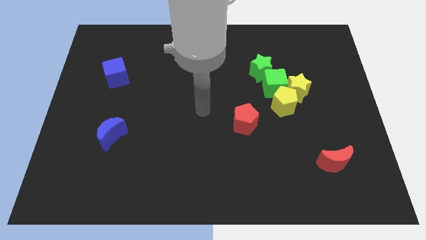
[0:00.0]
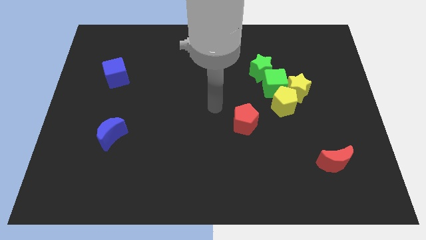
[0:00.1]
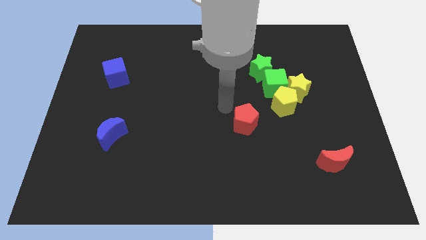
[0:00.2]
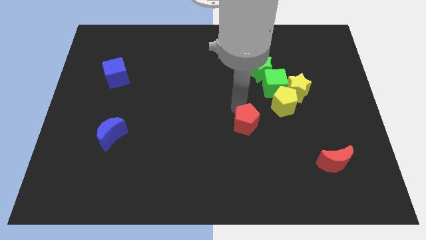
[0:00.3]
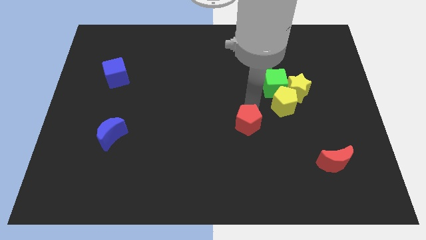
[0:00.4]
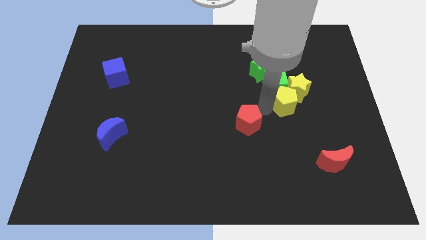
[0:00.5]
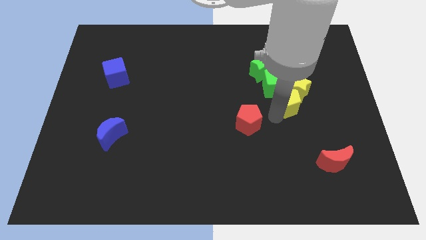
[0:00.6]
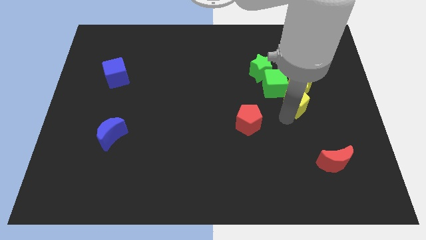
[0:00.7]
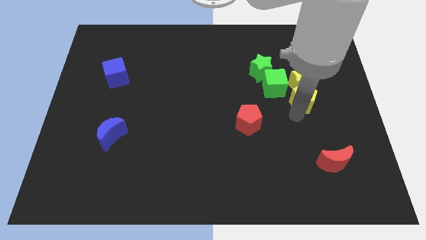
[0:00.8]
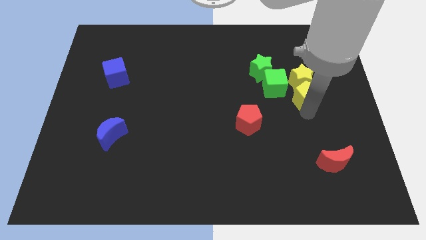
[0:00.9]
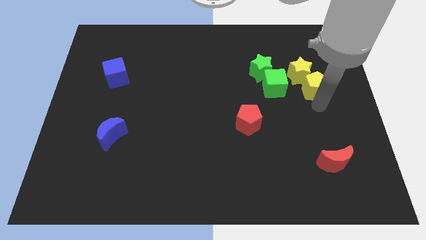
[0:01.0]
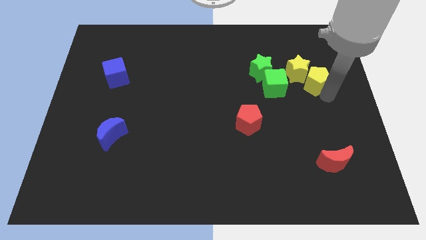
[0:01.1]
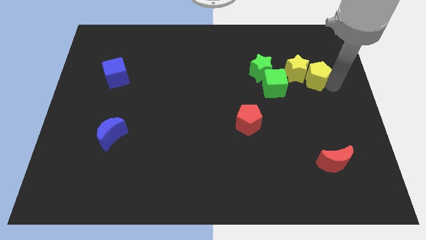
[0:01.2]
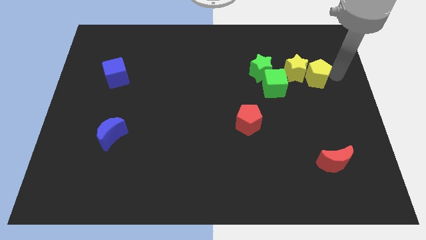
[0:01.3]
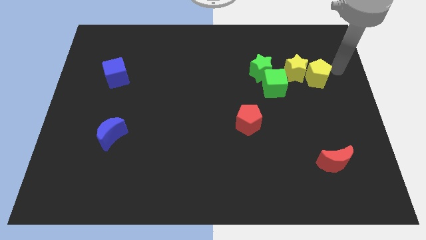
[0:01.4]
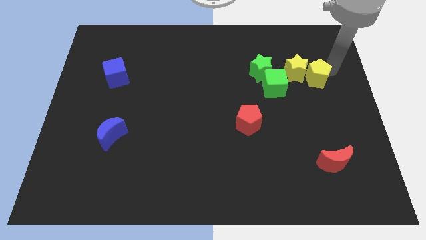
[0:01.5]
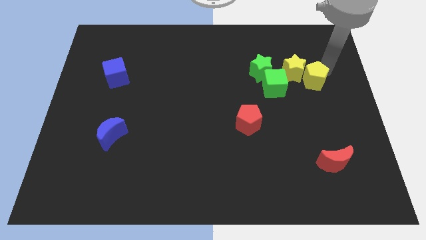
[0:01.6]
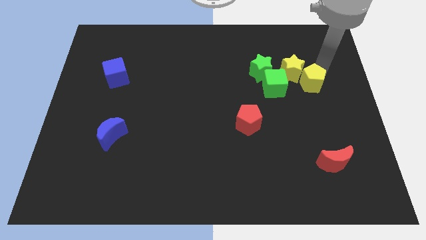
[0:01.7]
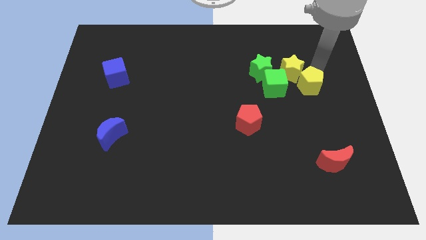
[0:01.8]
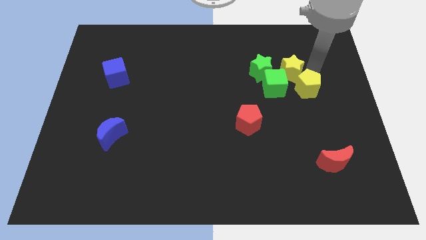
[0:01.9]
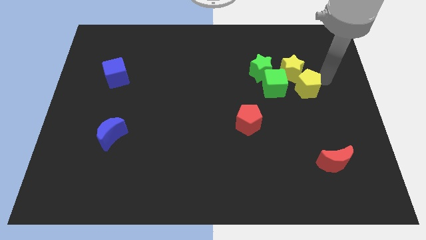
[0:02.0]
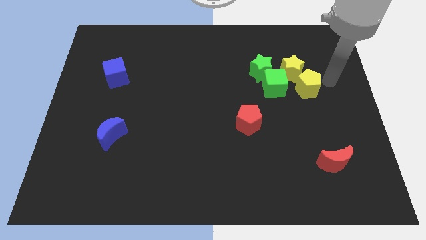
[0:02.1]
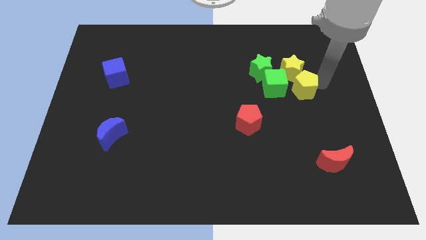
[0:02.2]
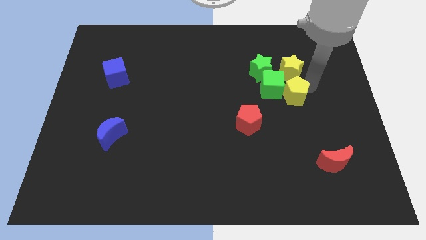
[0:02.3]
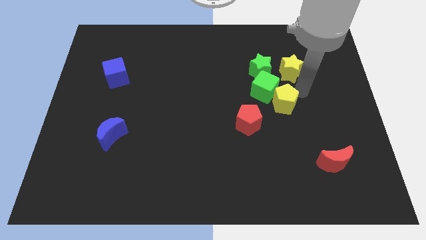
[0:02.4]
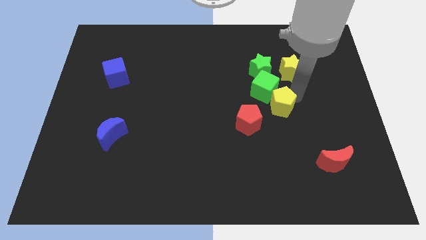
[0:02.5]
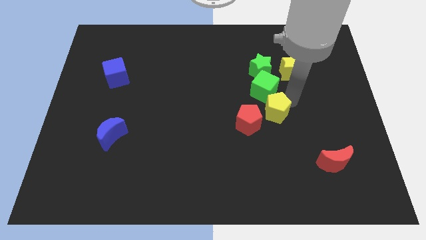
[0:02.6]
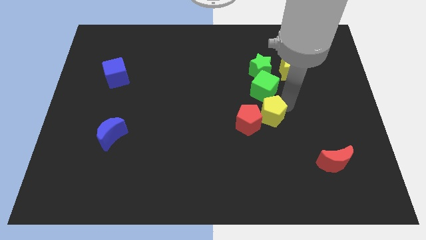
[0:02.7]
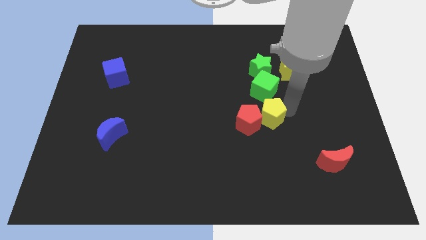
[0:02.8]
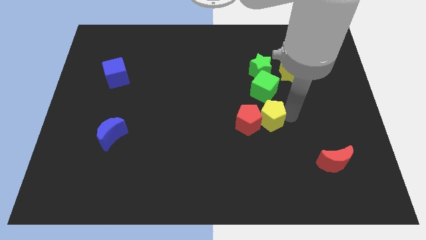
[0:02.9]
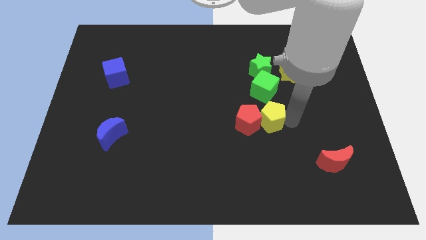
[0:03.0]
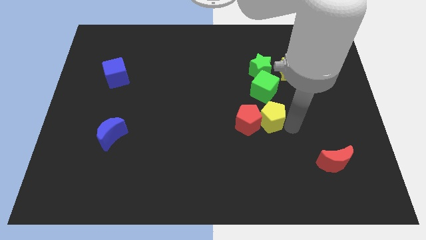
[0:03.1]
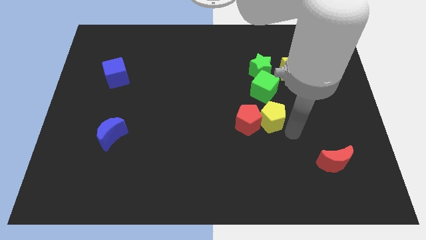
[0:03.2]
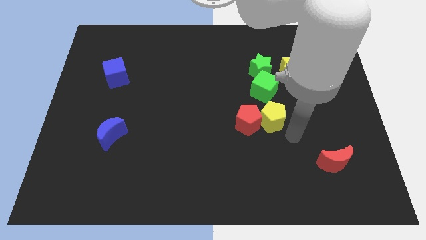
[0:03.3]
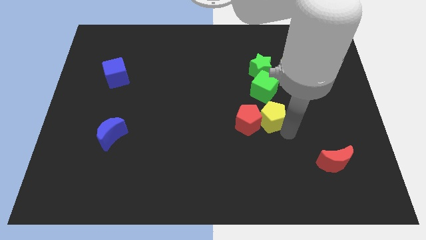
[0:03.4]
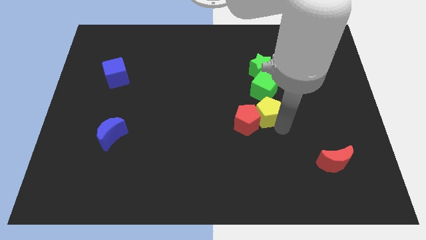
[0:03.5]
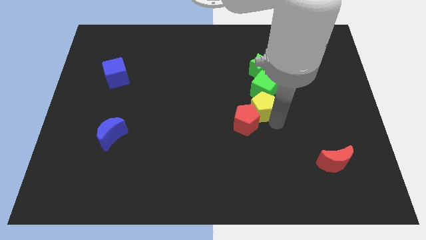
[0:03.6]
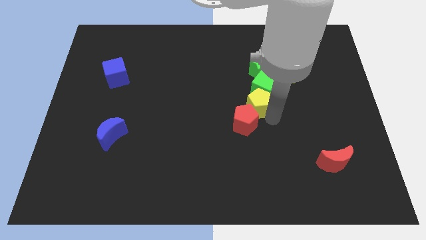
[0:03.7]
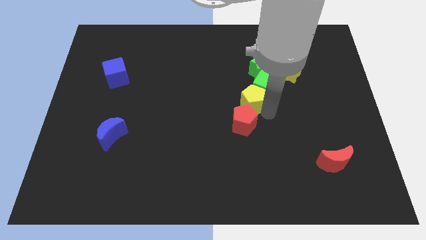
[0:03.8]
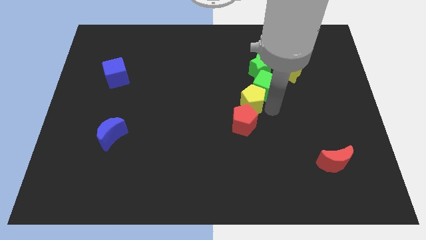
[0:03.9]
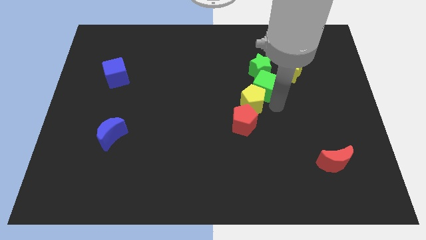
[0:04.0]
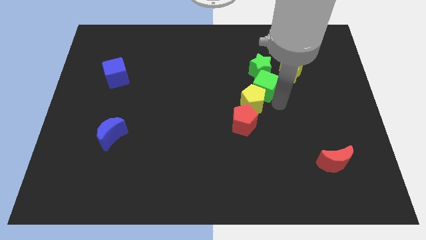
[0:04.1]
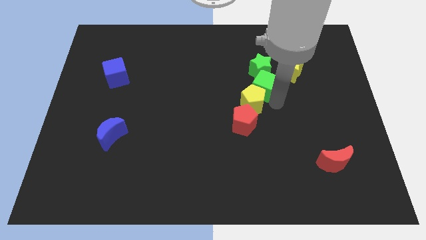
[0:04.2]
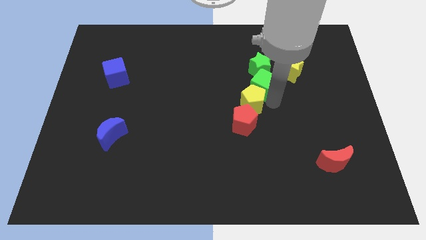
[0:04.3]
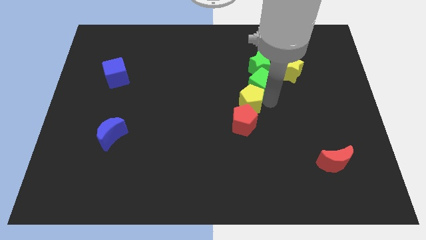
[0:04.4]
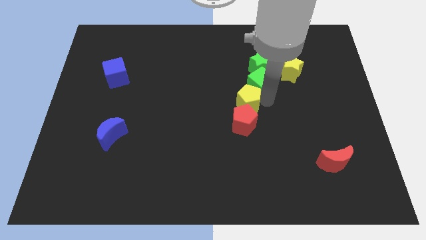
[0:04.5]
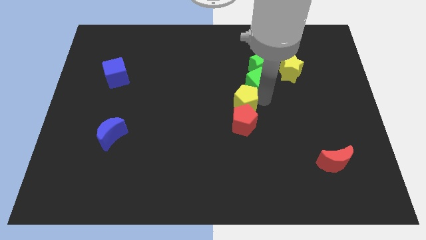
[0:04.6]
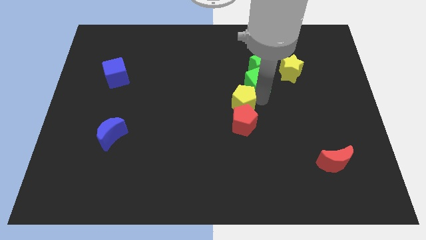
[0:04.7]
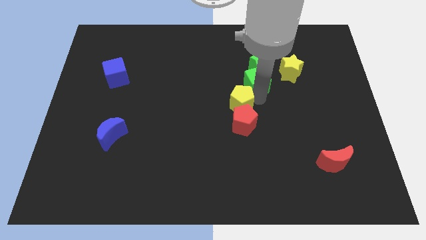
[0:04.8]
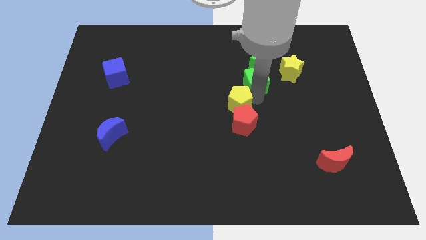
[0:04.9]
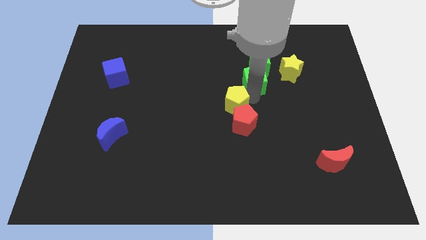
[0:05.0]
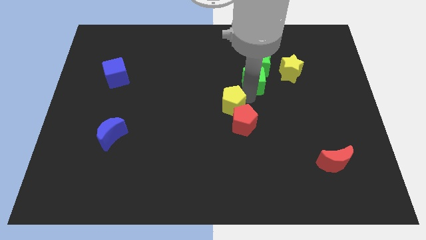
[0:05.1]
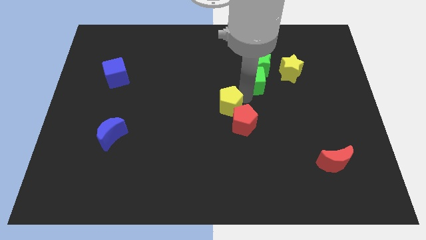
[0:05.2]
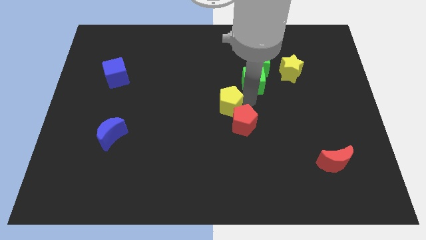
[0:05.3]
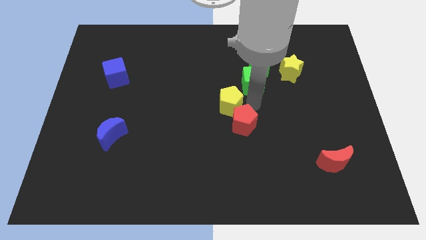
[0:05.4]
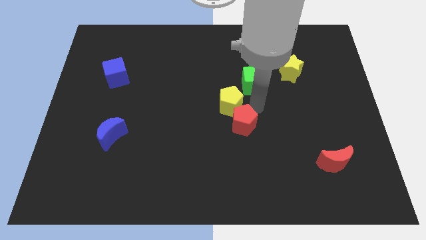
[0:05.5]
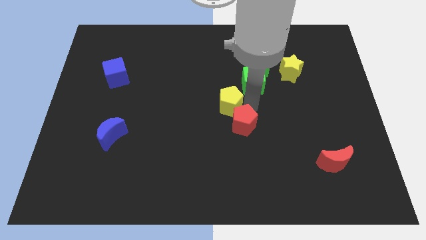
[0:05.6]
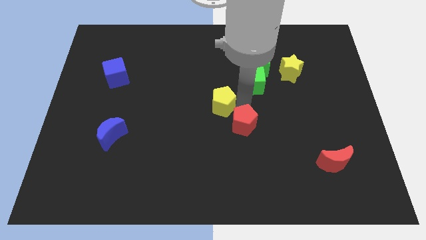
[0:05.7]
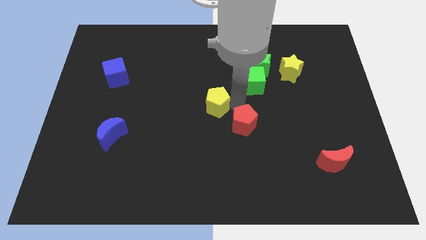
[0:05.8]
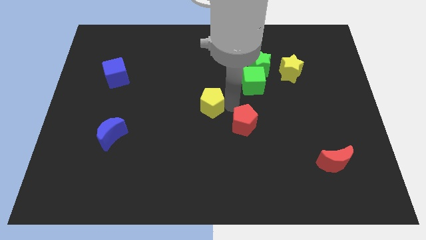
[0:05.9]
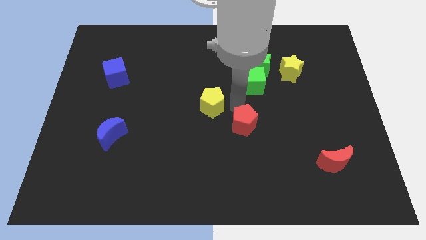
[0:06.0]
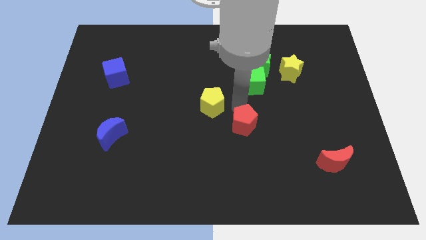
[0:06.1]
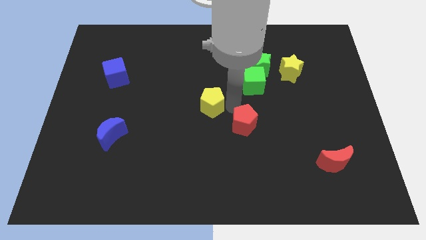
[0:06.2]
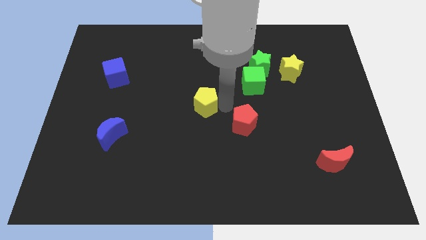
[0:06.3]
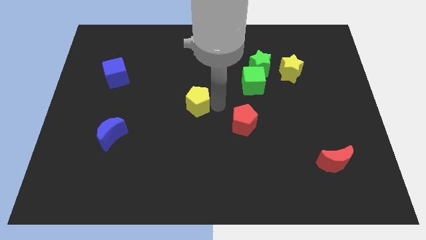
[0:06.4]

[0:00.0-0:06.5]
move the yellow pentagon left

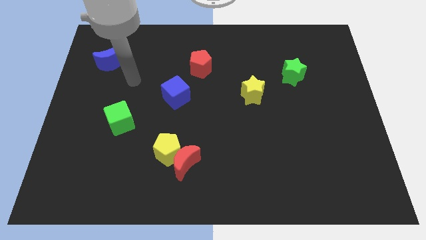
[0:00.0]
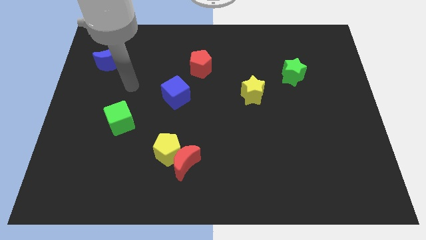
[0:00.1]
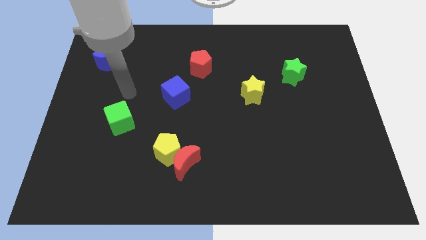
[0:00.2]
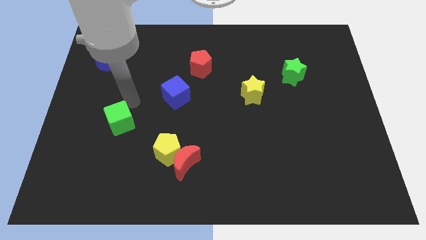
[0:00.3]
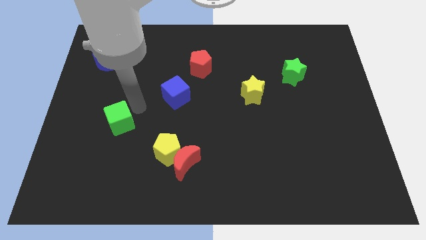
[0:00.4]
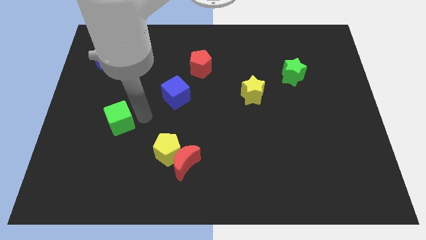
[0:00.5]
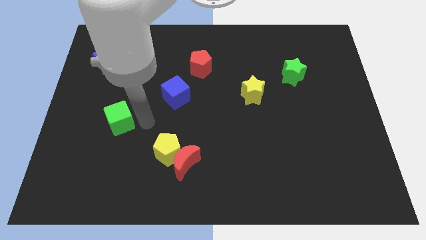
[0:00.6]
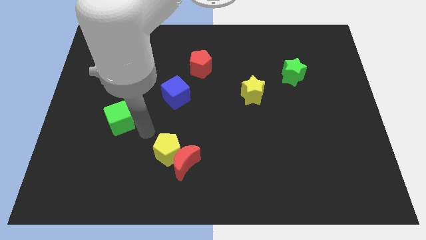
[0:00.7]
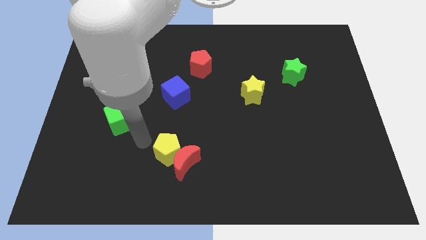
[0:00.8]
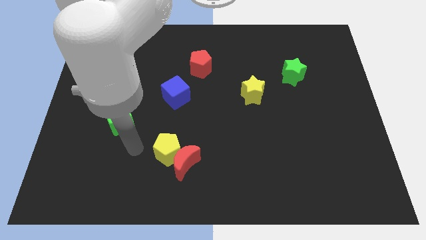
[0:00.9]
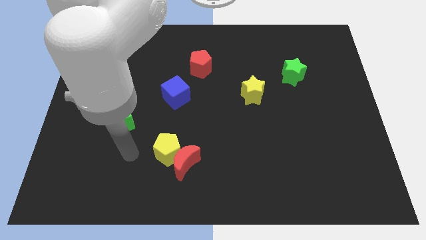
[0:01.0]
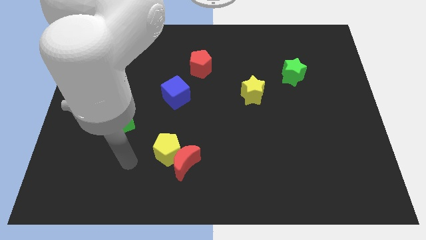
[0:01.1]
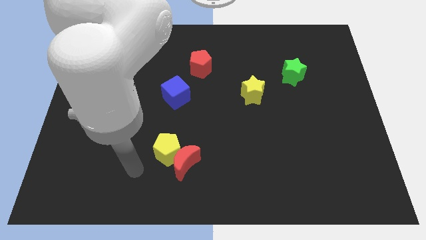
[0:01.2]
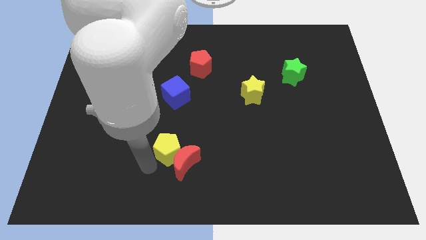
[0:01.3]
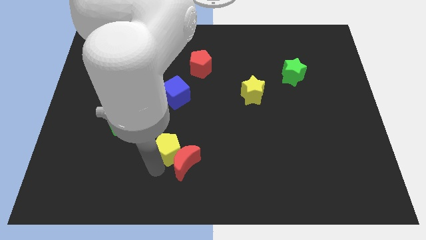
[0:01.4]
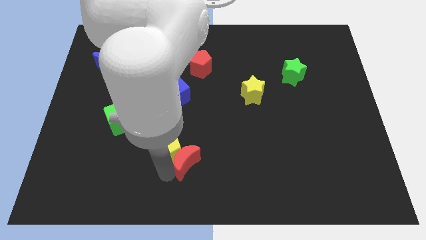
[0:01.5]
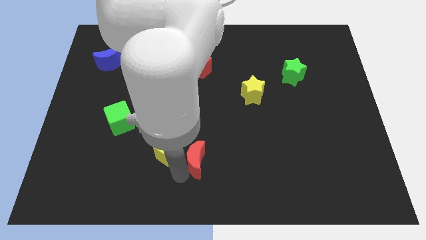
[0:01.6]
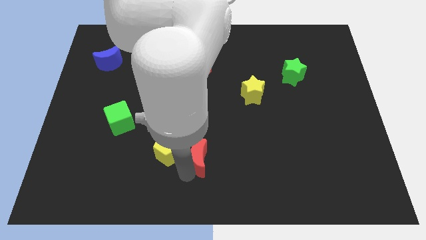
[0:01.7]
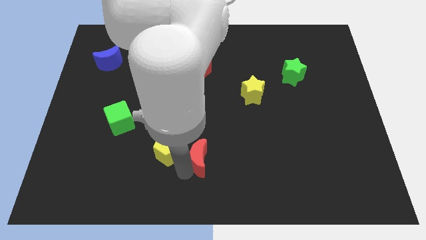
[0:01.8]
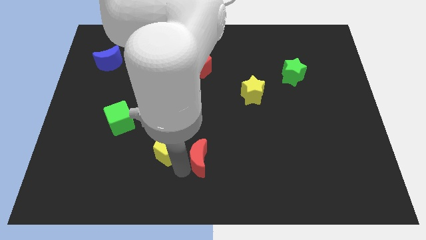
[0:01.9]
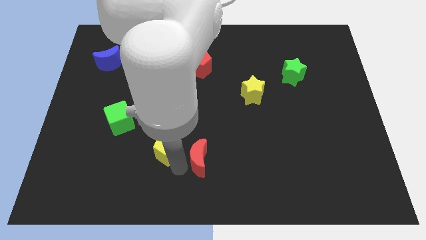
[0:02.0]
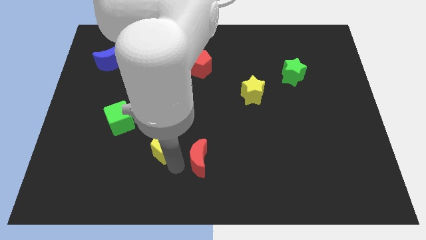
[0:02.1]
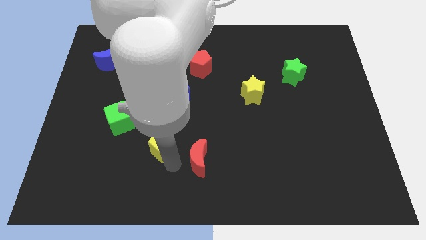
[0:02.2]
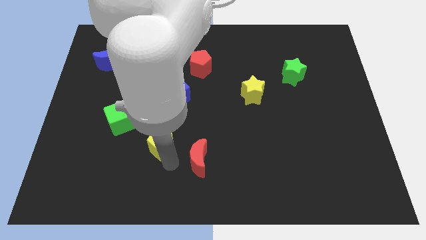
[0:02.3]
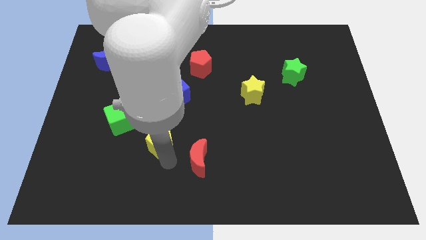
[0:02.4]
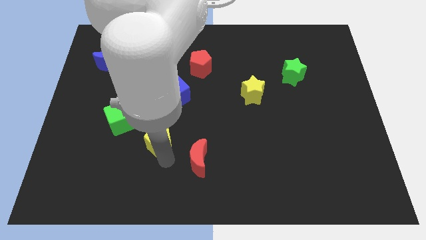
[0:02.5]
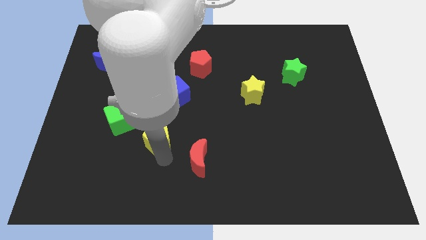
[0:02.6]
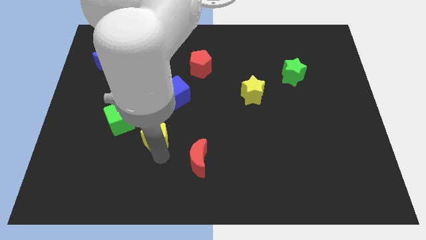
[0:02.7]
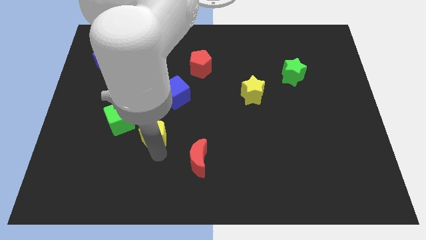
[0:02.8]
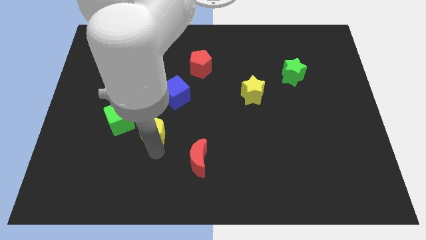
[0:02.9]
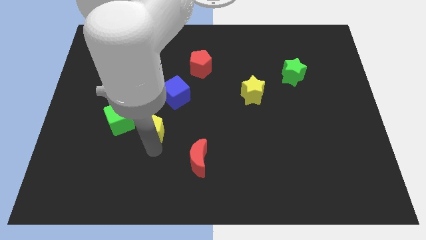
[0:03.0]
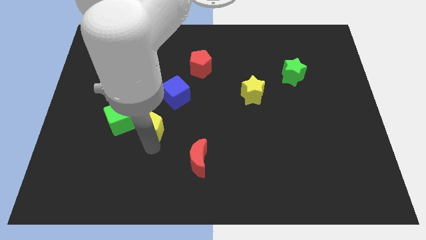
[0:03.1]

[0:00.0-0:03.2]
slightly push the yellow pentagon up and then to the left
